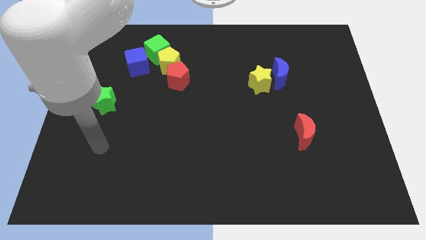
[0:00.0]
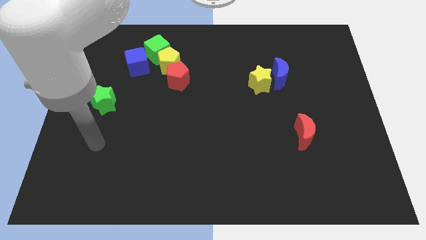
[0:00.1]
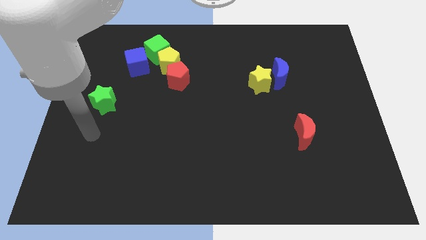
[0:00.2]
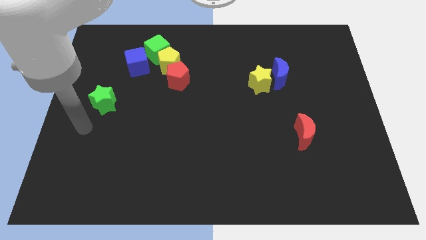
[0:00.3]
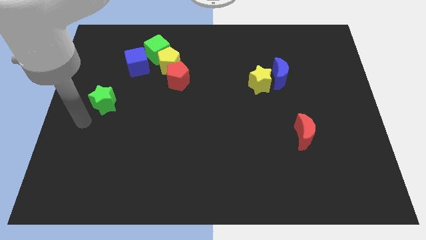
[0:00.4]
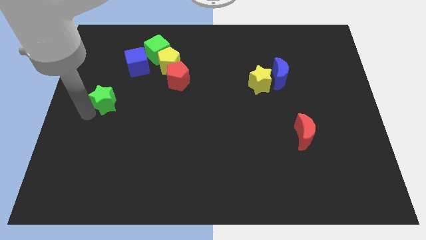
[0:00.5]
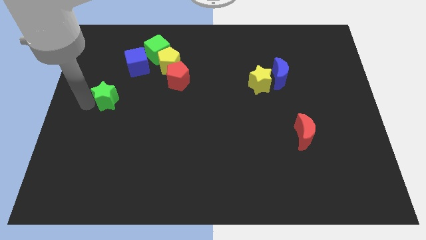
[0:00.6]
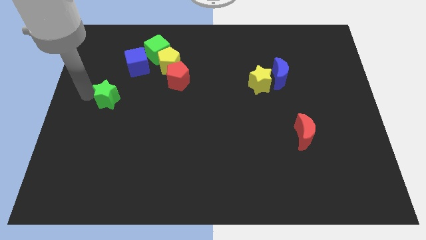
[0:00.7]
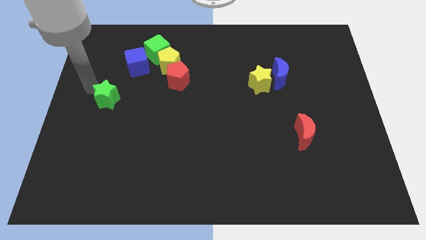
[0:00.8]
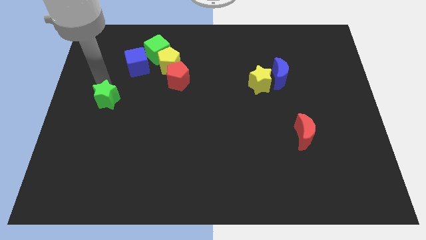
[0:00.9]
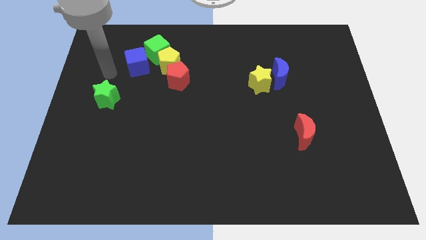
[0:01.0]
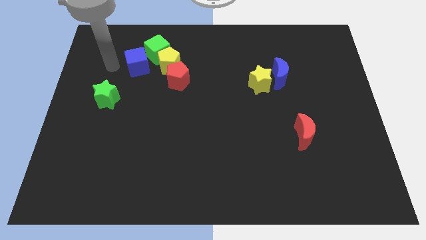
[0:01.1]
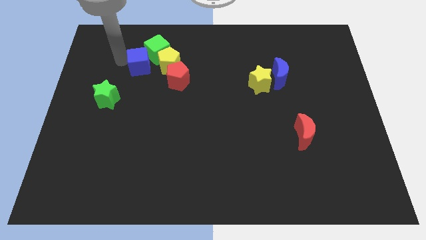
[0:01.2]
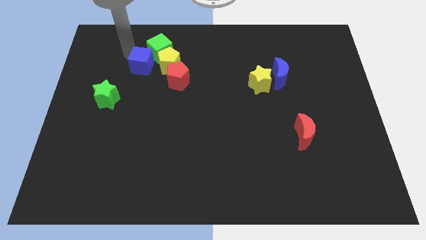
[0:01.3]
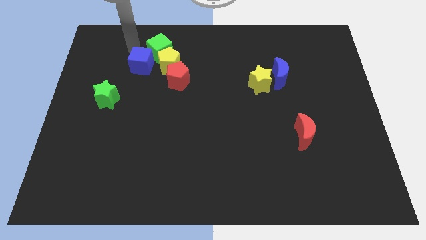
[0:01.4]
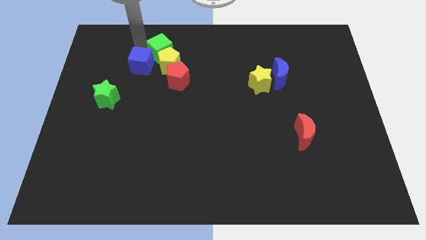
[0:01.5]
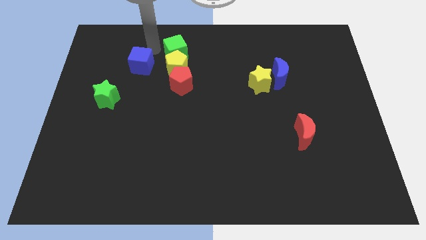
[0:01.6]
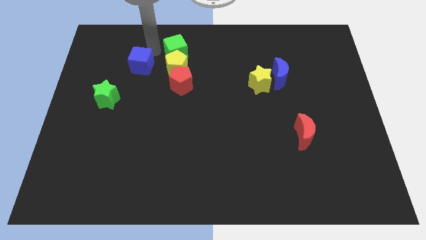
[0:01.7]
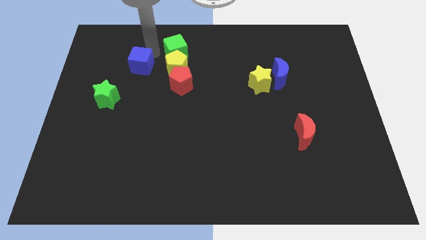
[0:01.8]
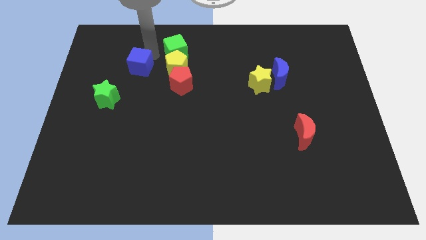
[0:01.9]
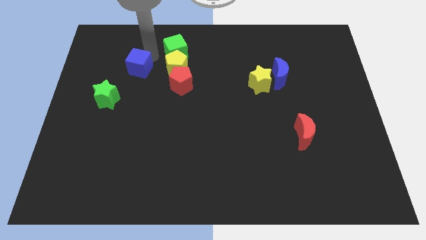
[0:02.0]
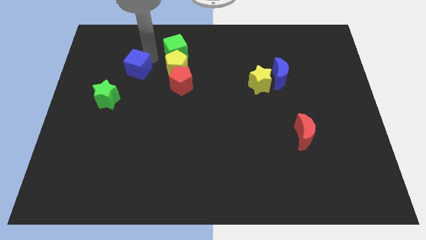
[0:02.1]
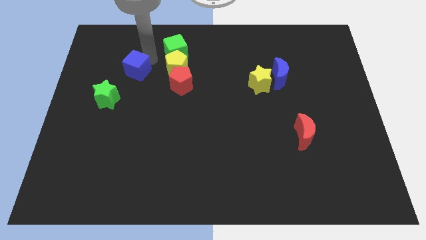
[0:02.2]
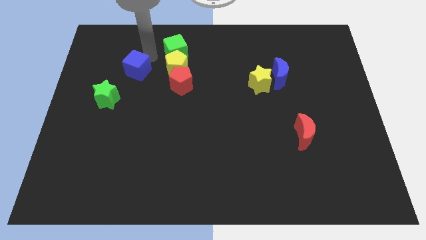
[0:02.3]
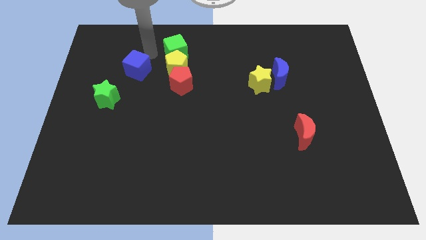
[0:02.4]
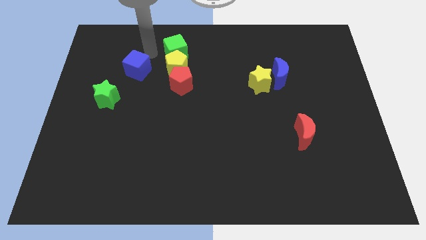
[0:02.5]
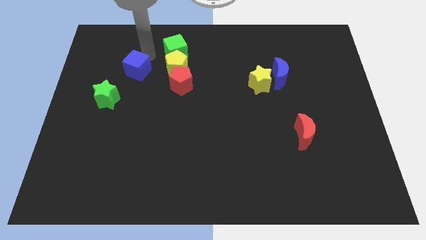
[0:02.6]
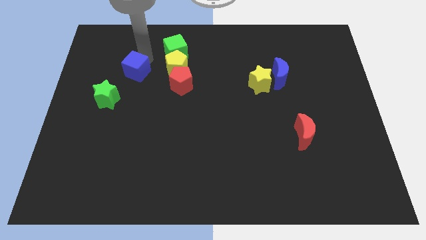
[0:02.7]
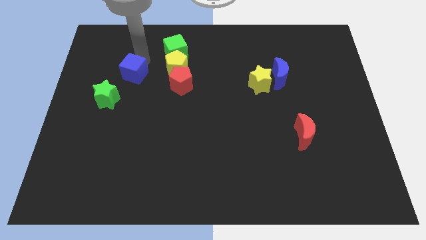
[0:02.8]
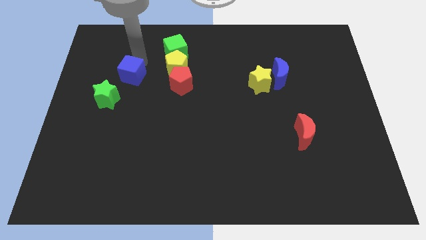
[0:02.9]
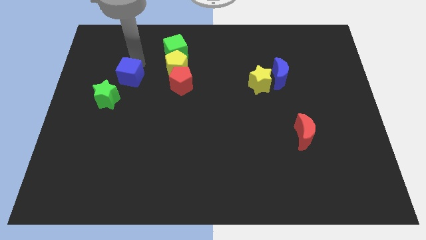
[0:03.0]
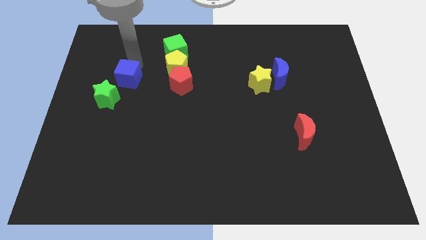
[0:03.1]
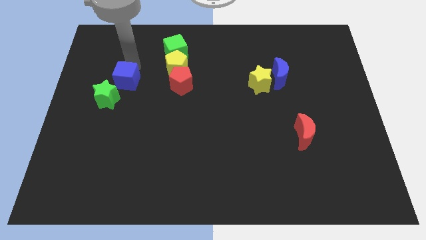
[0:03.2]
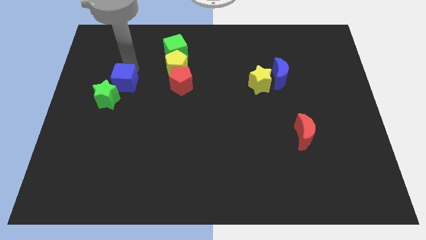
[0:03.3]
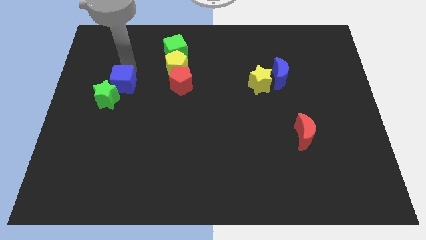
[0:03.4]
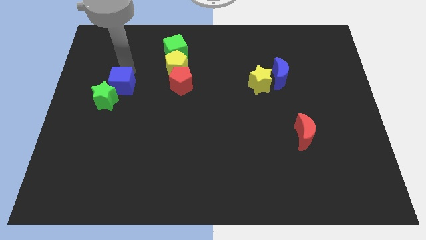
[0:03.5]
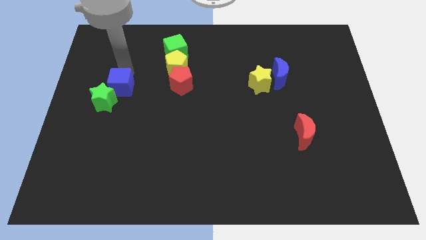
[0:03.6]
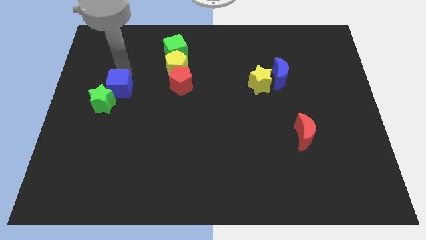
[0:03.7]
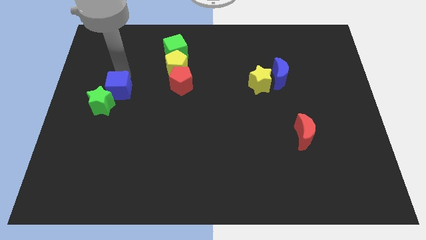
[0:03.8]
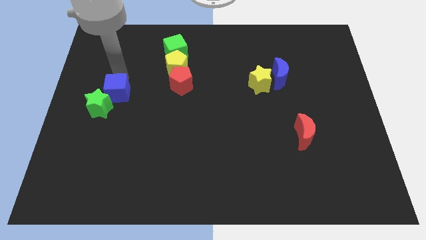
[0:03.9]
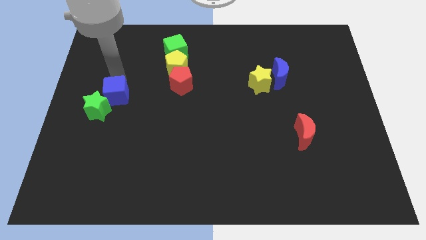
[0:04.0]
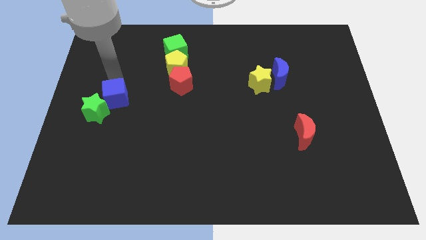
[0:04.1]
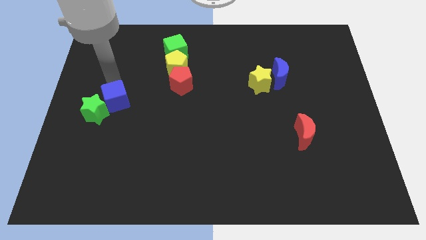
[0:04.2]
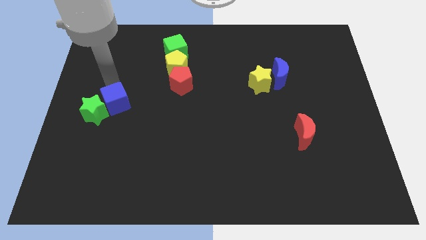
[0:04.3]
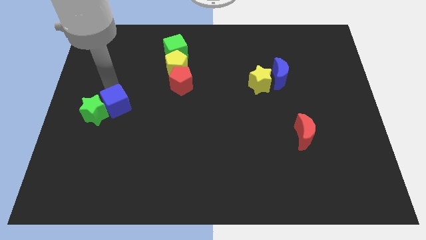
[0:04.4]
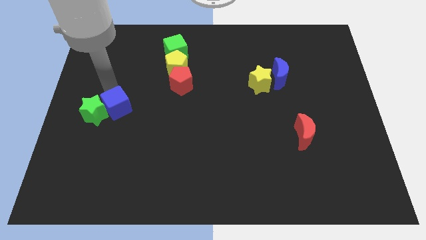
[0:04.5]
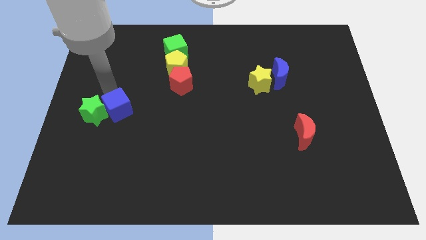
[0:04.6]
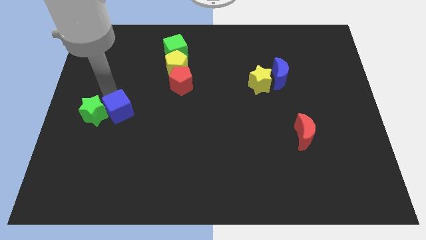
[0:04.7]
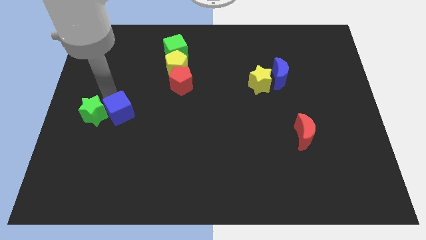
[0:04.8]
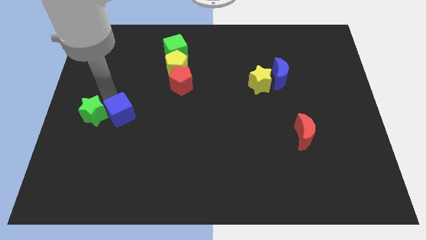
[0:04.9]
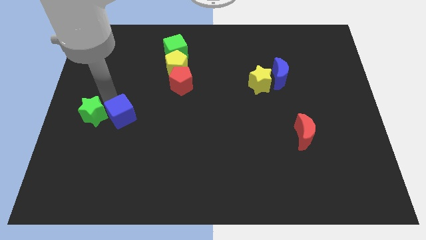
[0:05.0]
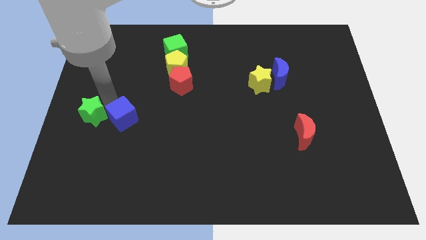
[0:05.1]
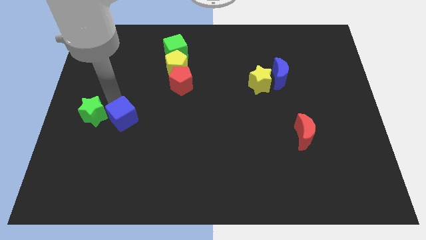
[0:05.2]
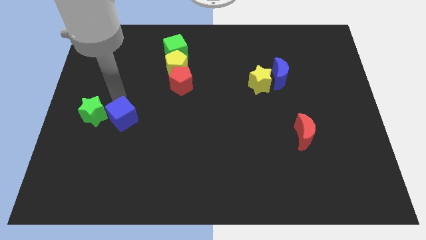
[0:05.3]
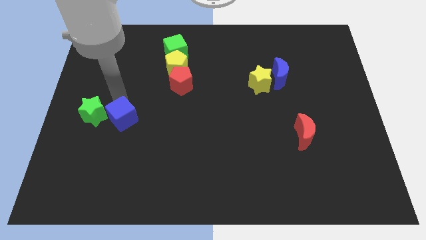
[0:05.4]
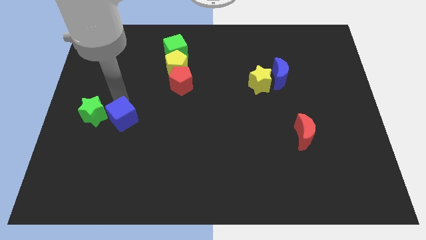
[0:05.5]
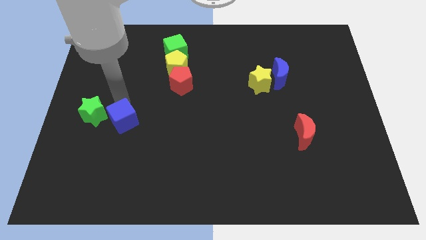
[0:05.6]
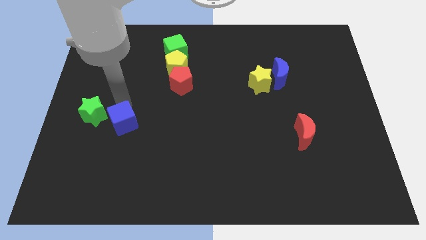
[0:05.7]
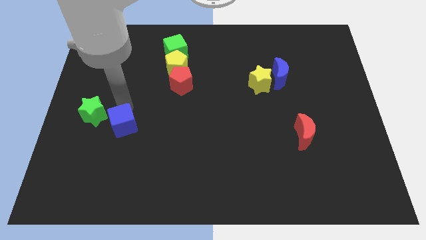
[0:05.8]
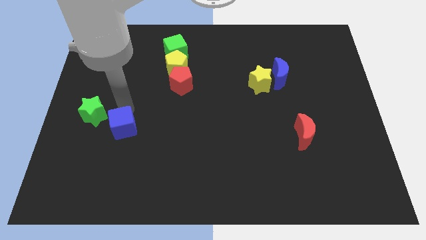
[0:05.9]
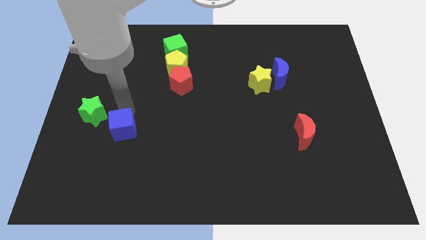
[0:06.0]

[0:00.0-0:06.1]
move the blue cube downwards

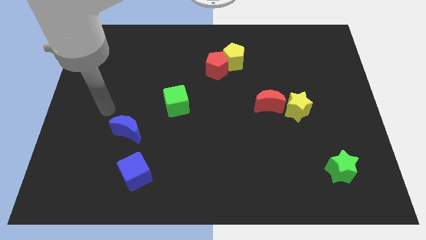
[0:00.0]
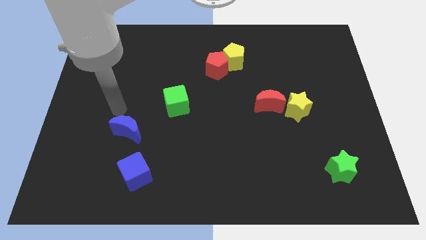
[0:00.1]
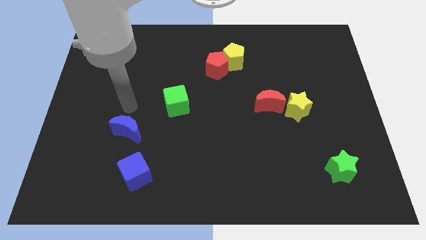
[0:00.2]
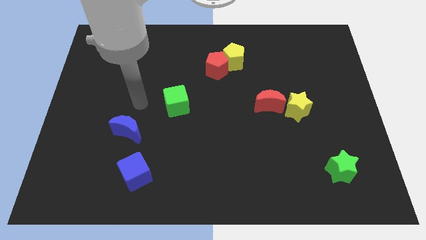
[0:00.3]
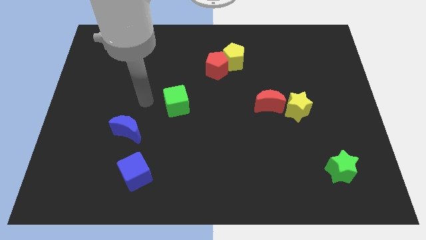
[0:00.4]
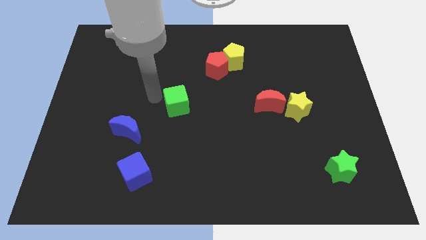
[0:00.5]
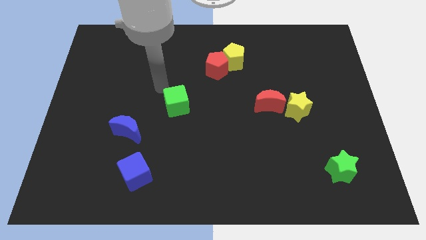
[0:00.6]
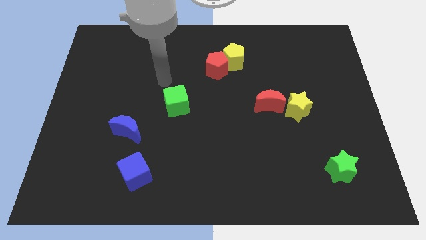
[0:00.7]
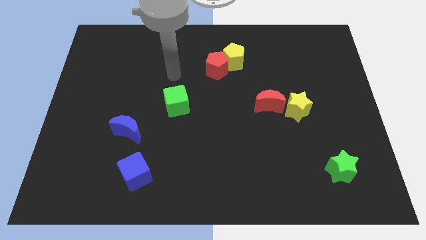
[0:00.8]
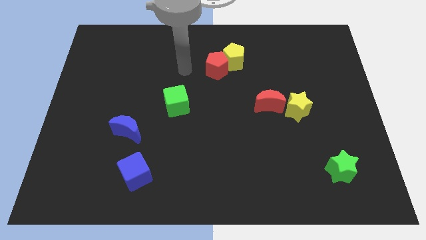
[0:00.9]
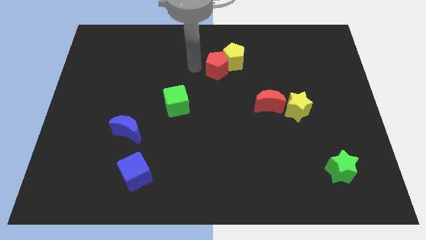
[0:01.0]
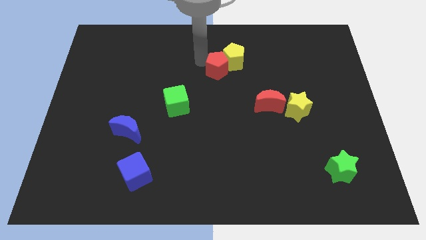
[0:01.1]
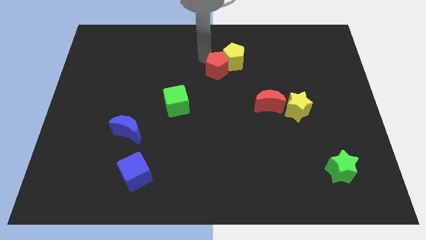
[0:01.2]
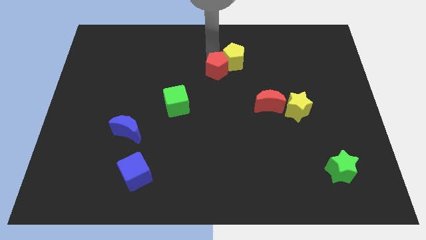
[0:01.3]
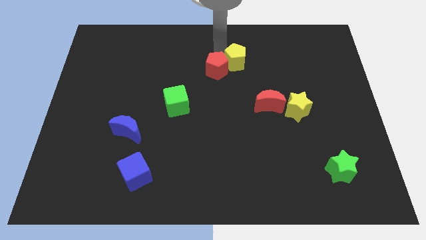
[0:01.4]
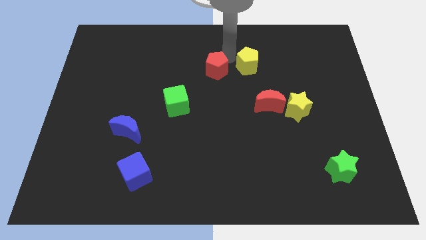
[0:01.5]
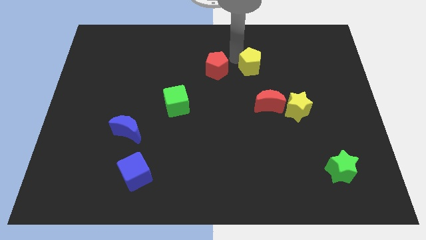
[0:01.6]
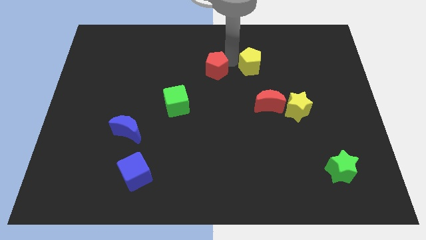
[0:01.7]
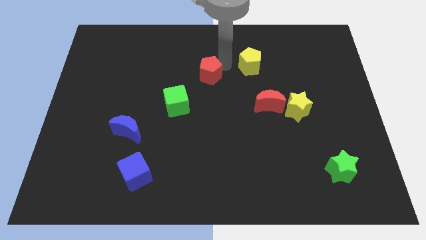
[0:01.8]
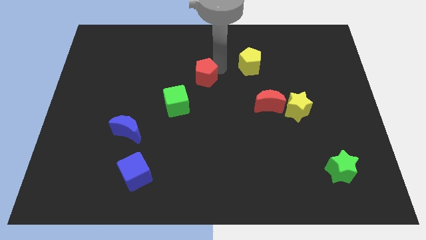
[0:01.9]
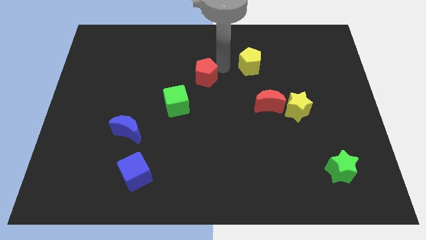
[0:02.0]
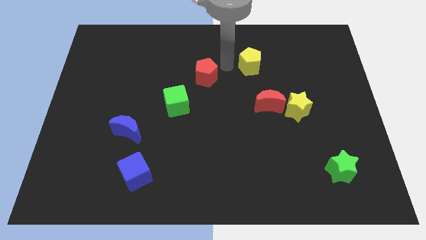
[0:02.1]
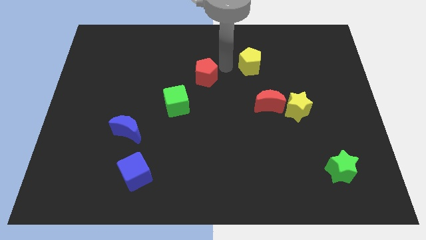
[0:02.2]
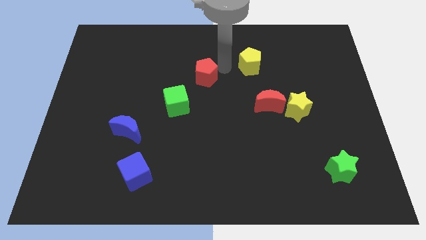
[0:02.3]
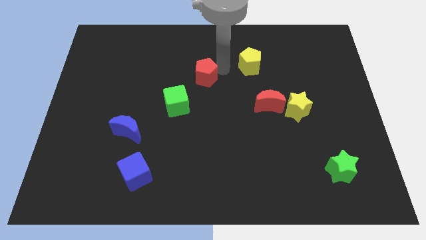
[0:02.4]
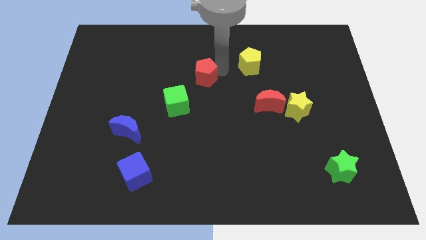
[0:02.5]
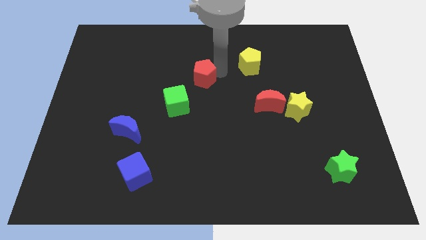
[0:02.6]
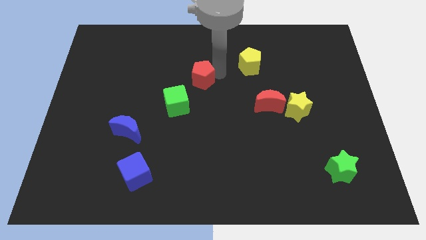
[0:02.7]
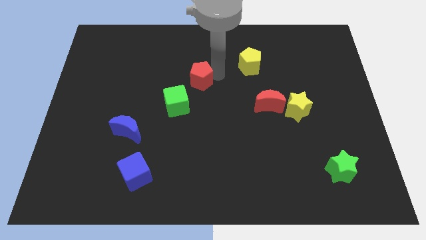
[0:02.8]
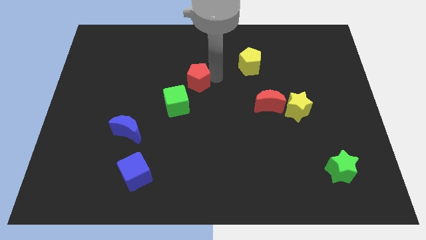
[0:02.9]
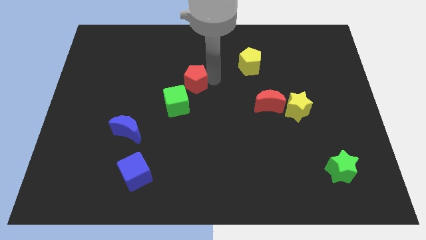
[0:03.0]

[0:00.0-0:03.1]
slide the red pentagon down and to the left diagonally a little bit
